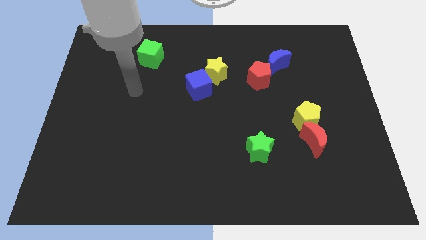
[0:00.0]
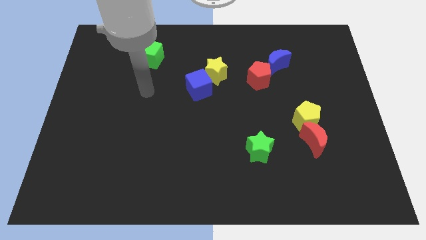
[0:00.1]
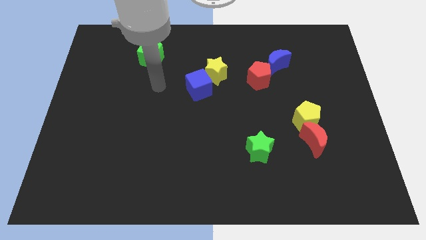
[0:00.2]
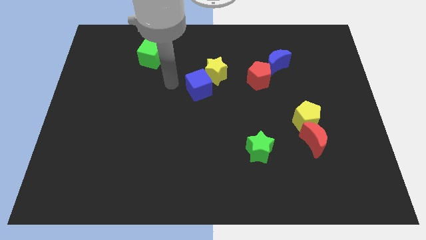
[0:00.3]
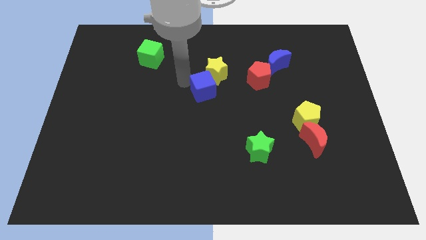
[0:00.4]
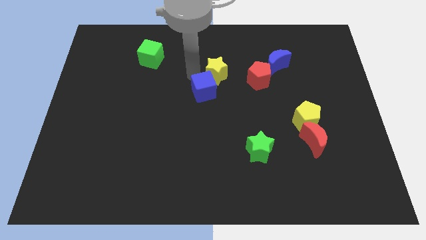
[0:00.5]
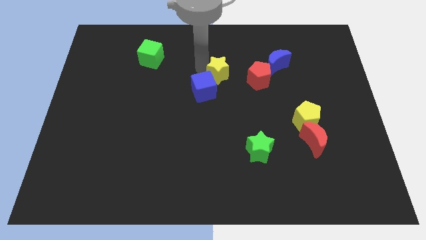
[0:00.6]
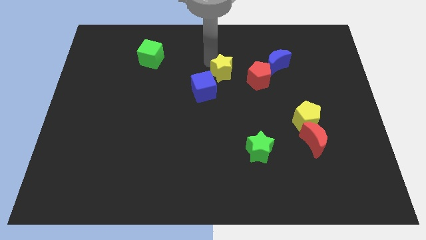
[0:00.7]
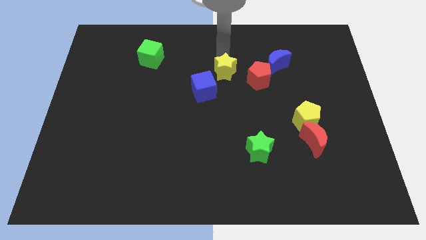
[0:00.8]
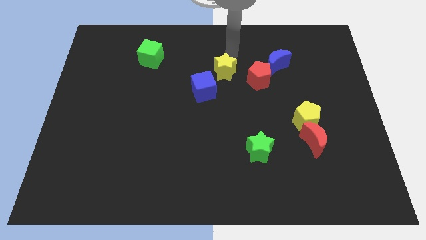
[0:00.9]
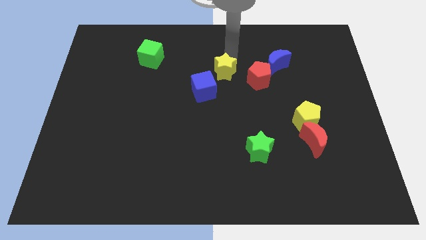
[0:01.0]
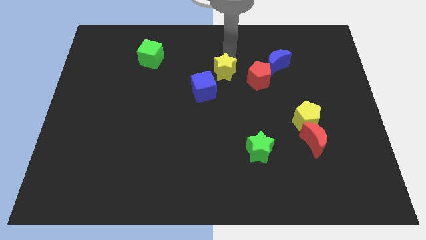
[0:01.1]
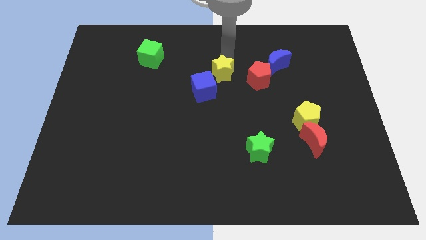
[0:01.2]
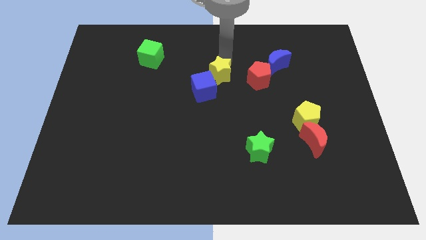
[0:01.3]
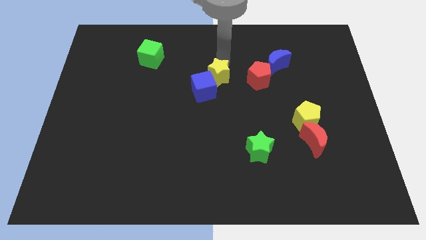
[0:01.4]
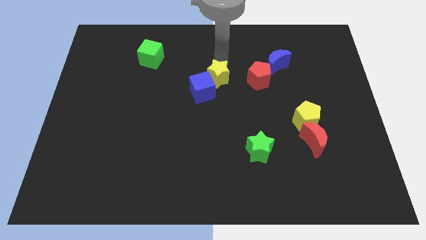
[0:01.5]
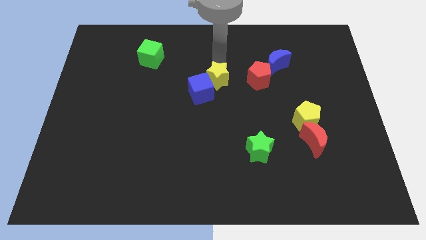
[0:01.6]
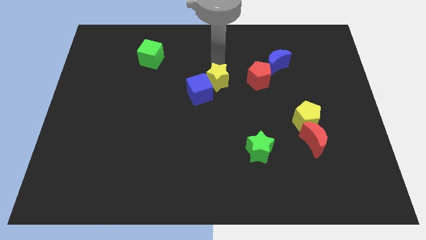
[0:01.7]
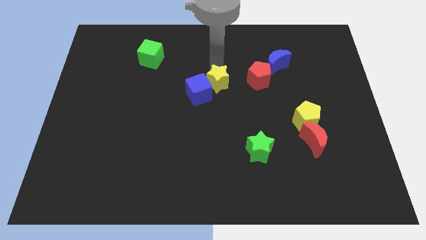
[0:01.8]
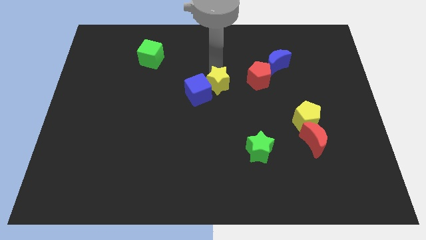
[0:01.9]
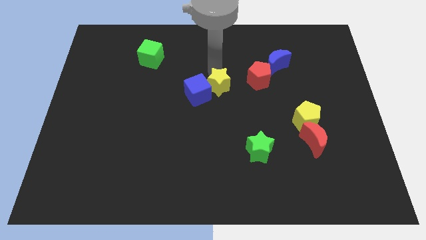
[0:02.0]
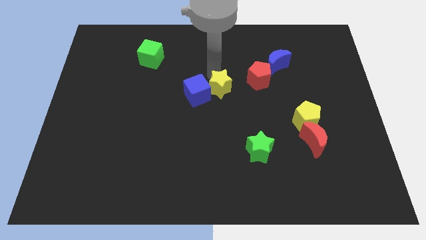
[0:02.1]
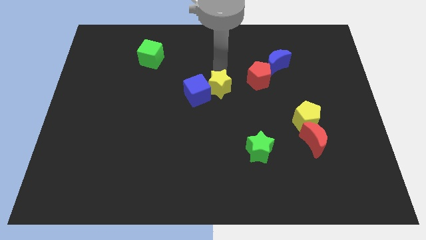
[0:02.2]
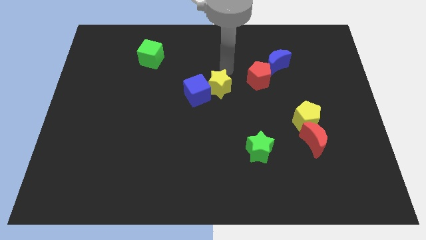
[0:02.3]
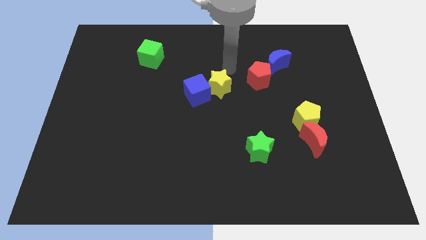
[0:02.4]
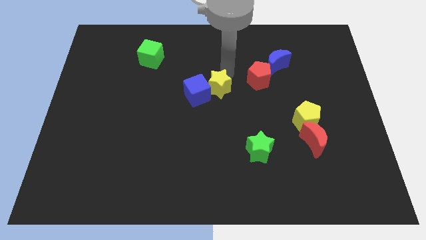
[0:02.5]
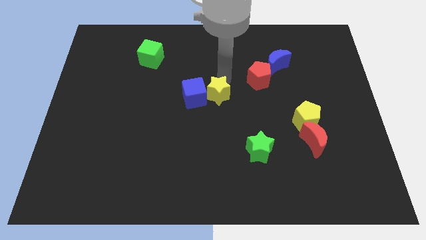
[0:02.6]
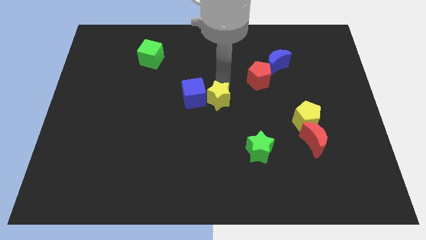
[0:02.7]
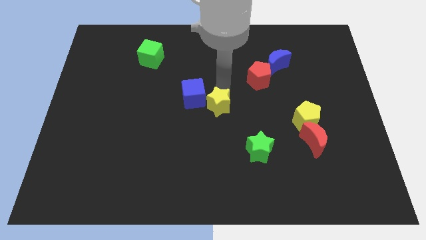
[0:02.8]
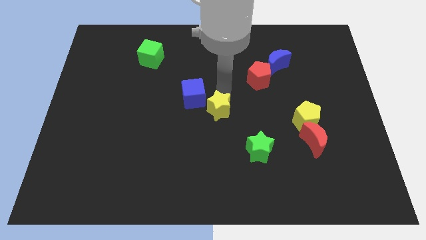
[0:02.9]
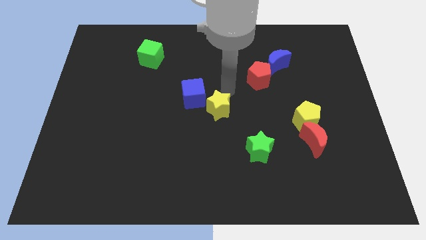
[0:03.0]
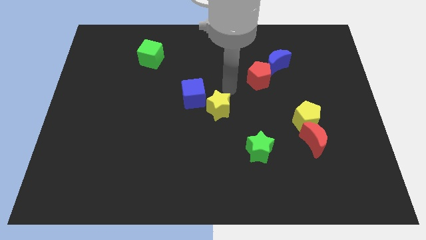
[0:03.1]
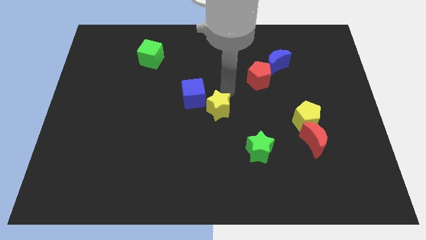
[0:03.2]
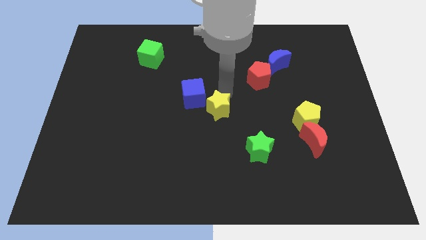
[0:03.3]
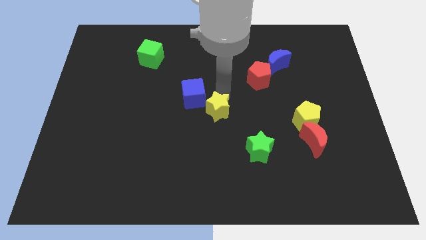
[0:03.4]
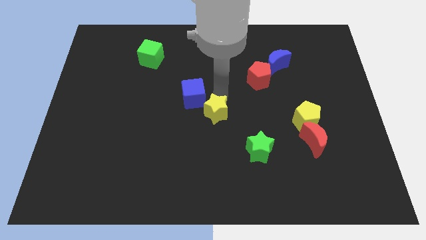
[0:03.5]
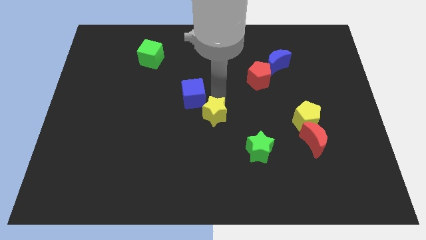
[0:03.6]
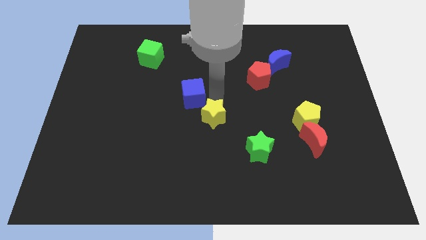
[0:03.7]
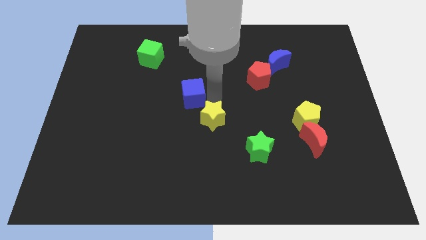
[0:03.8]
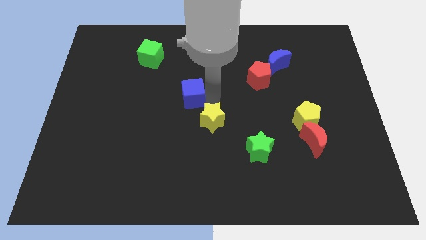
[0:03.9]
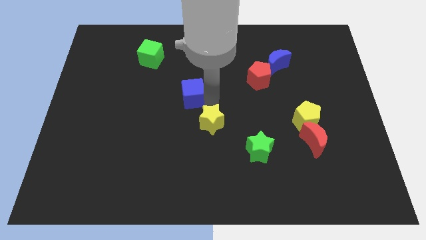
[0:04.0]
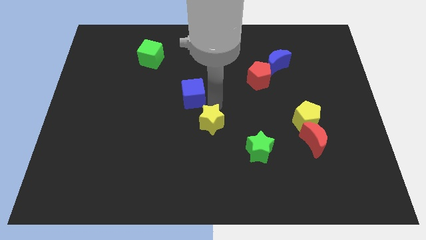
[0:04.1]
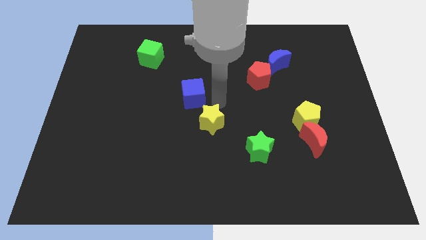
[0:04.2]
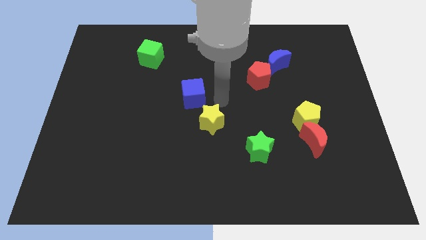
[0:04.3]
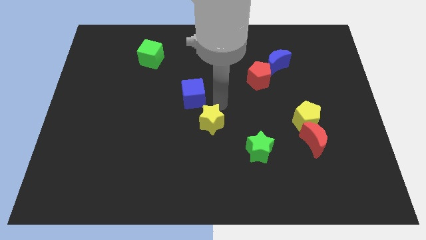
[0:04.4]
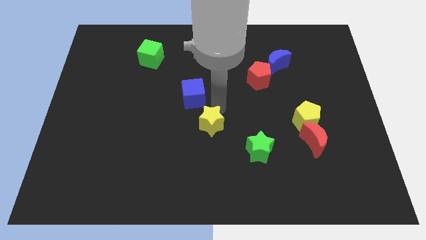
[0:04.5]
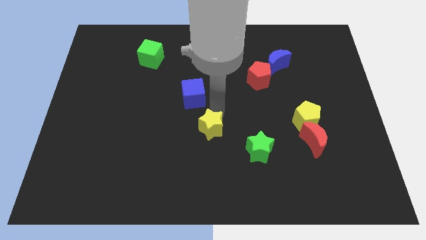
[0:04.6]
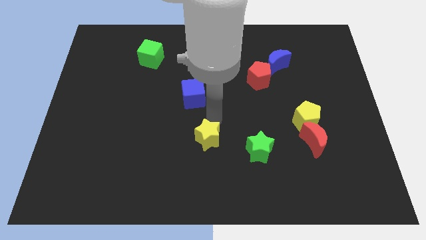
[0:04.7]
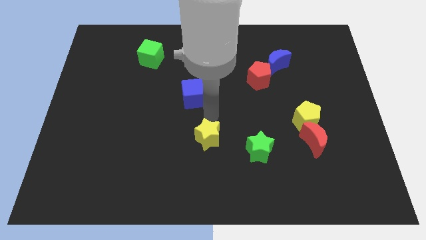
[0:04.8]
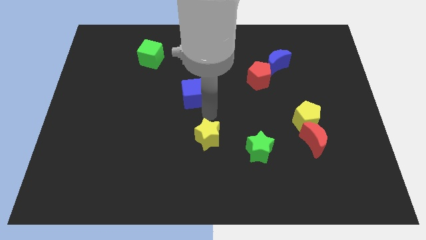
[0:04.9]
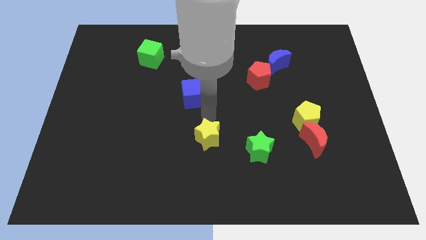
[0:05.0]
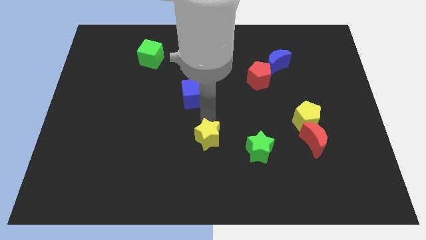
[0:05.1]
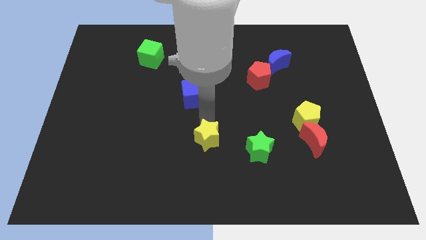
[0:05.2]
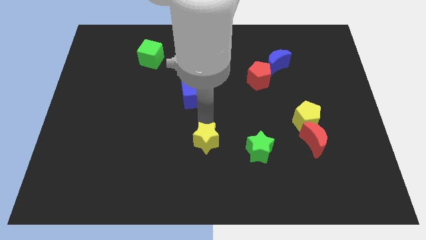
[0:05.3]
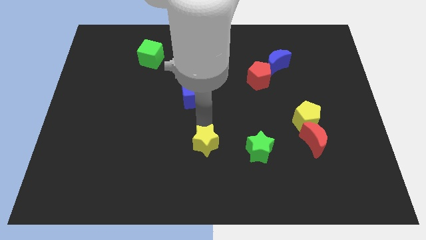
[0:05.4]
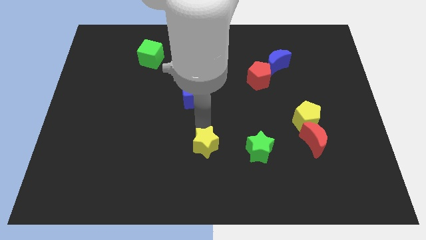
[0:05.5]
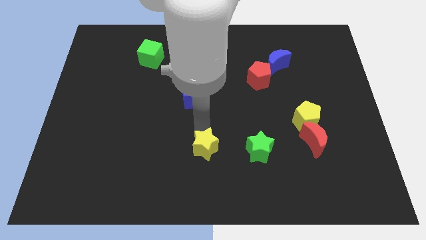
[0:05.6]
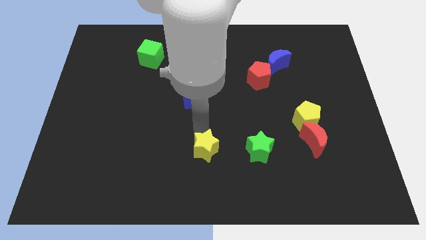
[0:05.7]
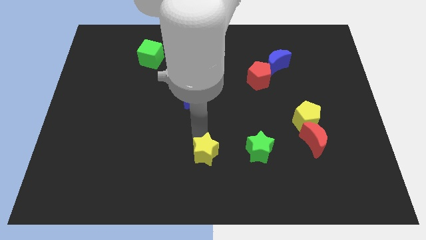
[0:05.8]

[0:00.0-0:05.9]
slide the yellow star to the bottom

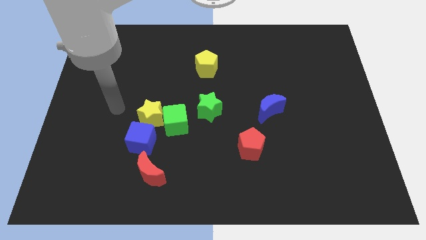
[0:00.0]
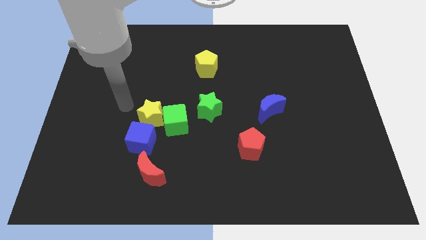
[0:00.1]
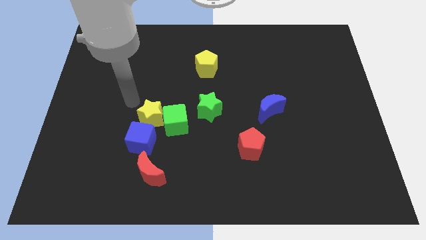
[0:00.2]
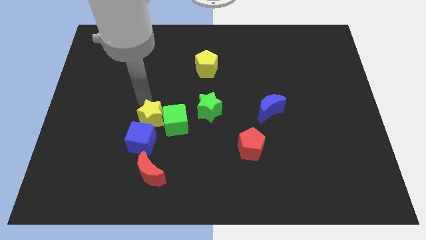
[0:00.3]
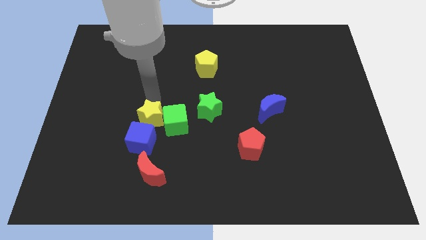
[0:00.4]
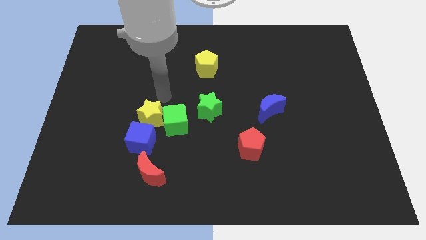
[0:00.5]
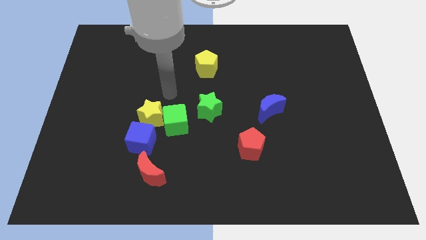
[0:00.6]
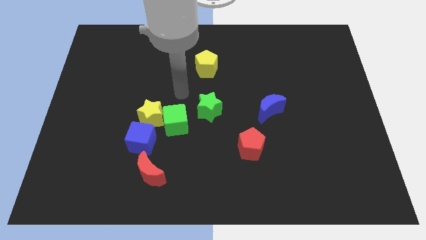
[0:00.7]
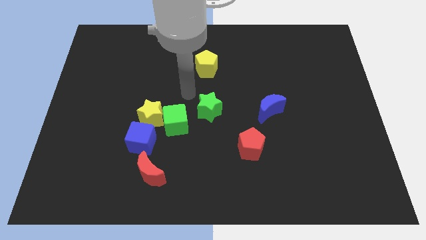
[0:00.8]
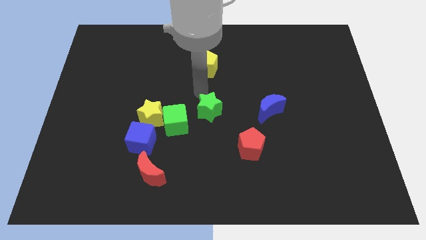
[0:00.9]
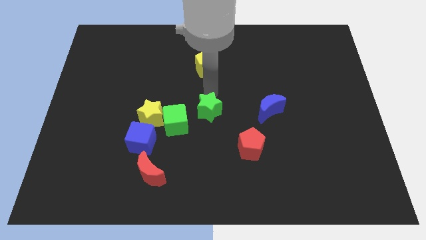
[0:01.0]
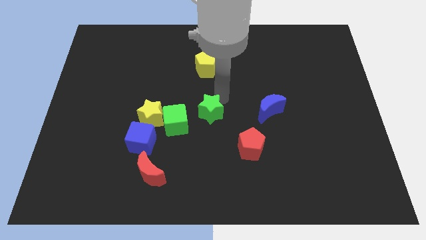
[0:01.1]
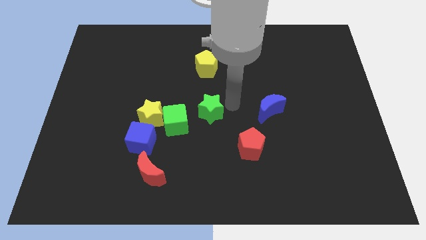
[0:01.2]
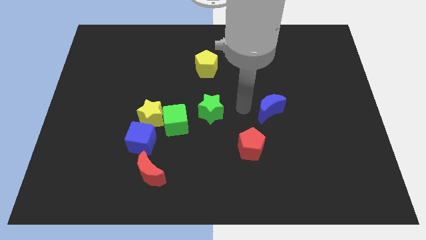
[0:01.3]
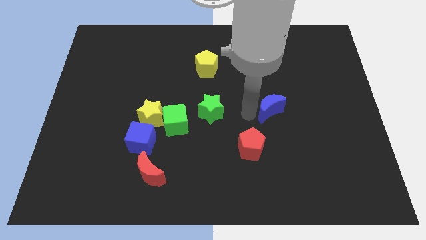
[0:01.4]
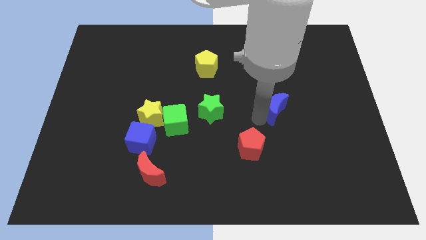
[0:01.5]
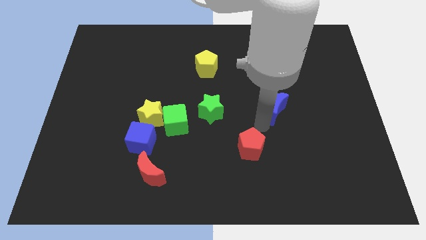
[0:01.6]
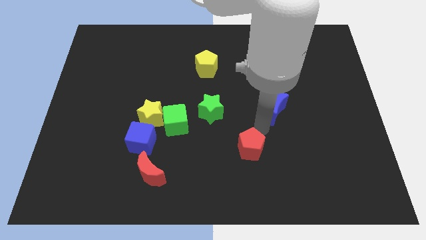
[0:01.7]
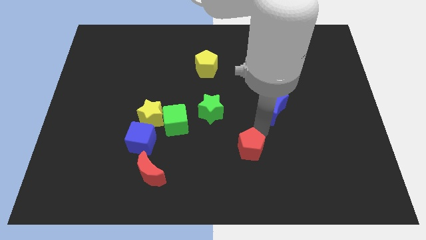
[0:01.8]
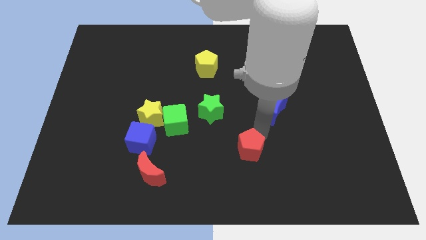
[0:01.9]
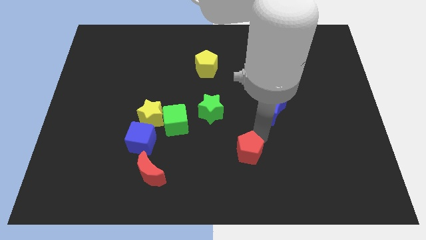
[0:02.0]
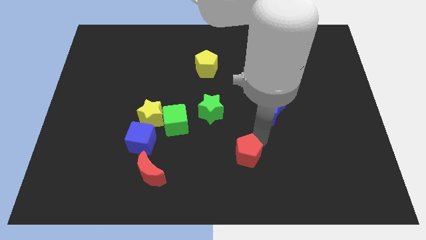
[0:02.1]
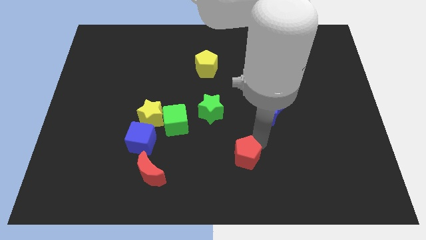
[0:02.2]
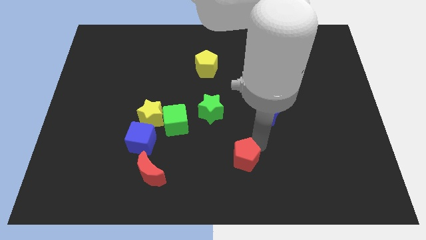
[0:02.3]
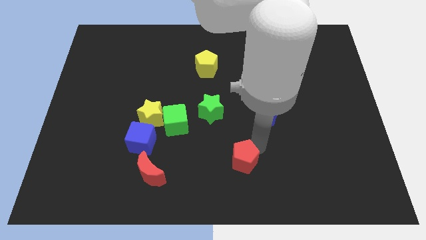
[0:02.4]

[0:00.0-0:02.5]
put the red pentagon to the bottom side
